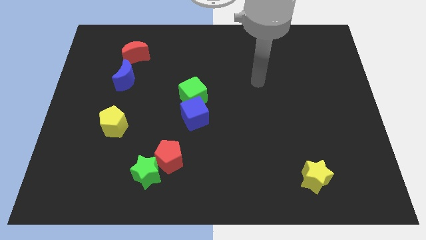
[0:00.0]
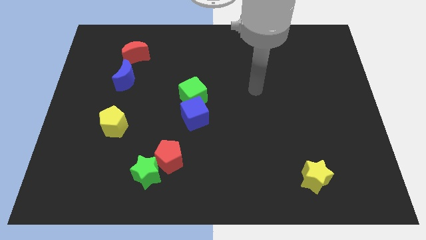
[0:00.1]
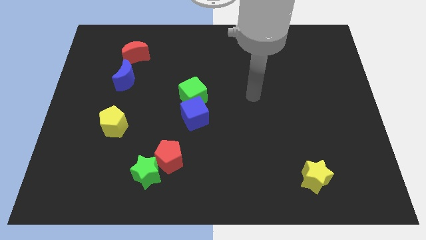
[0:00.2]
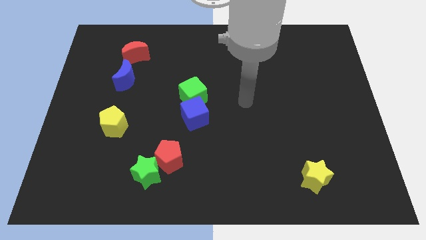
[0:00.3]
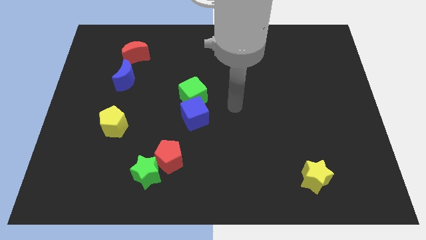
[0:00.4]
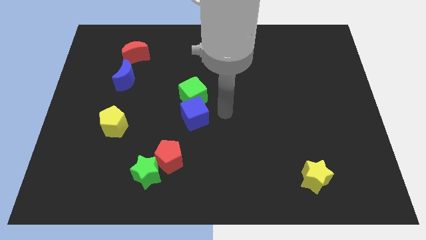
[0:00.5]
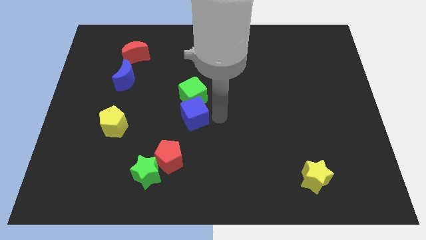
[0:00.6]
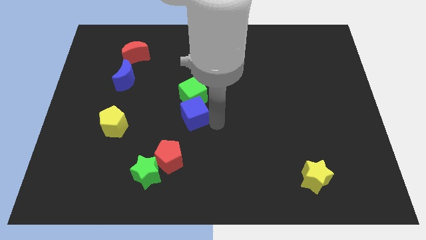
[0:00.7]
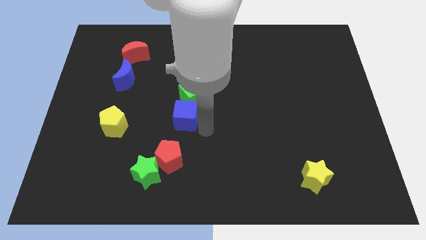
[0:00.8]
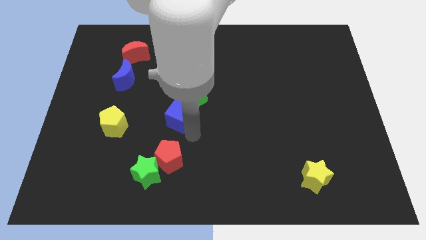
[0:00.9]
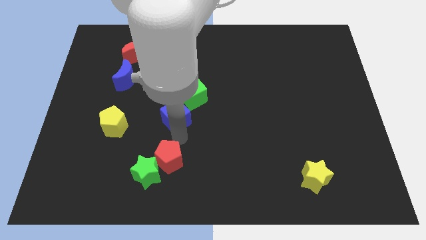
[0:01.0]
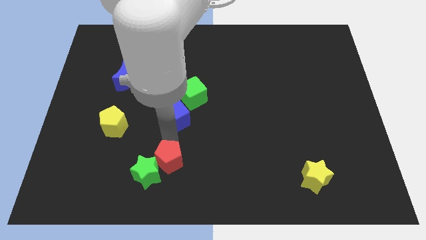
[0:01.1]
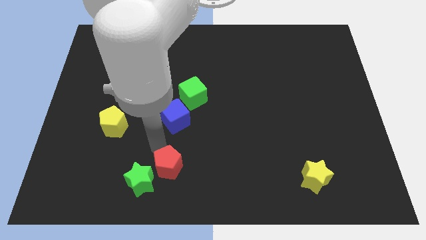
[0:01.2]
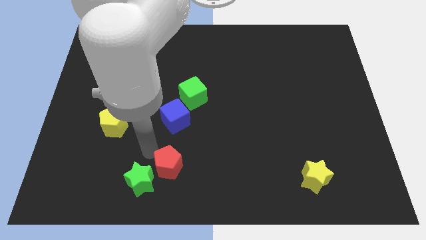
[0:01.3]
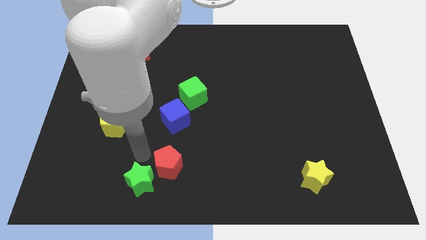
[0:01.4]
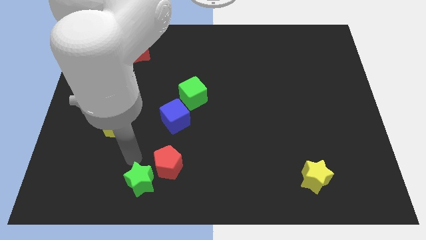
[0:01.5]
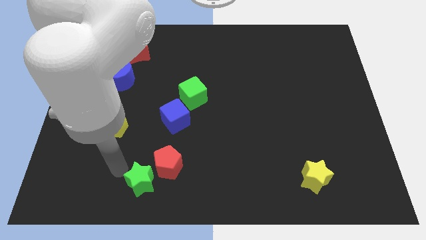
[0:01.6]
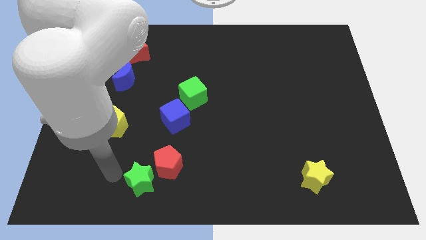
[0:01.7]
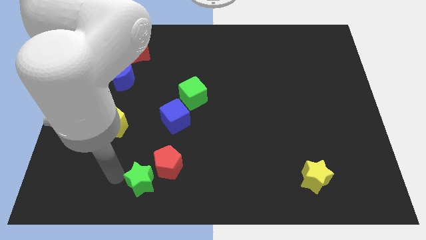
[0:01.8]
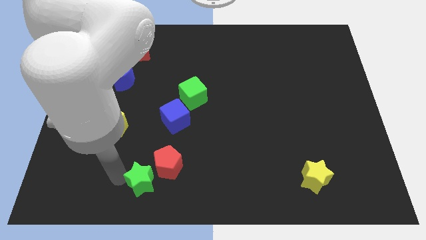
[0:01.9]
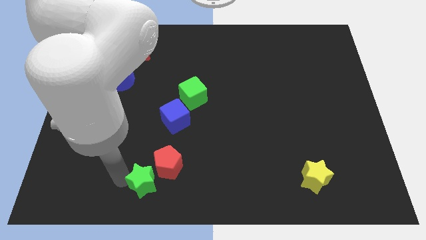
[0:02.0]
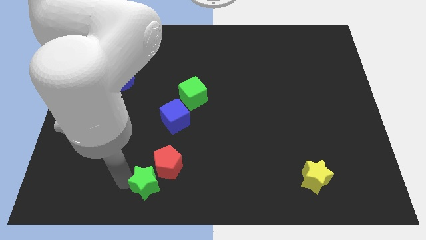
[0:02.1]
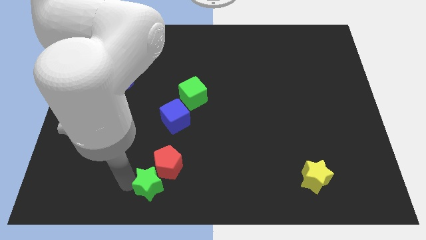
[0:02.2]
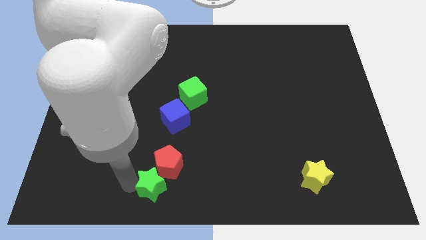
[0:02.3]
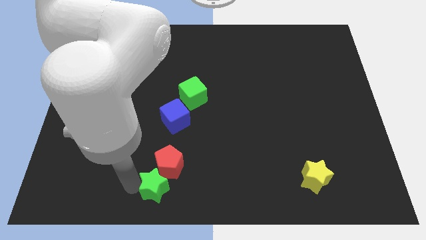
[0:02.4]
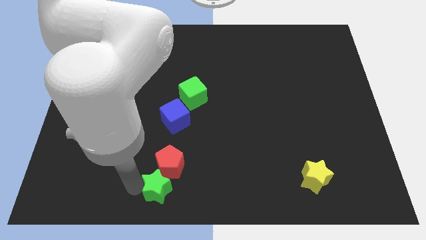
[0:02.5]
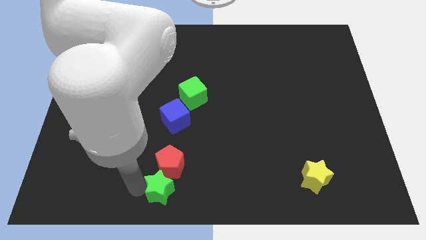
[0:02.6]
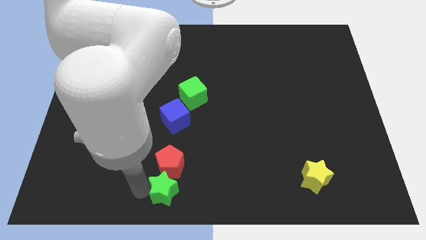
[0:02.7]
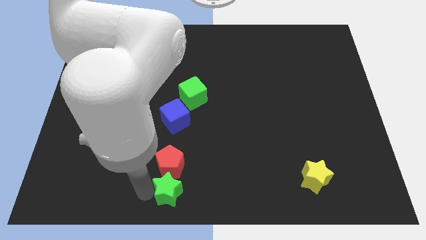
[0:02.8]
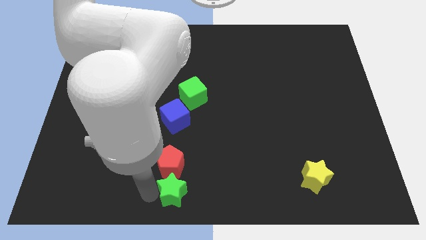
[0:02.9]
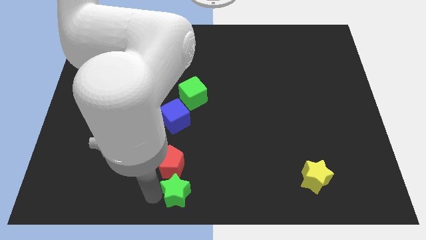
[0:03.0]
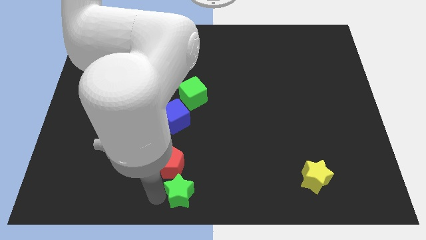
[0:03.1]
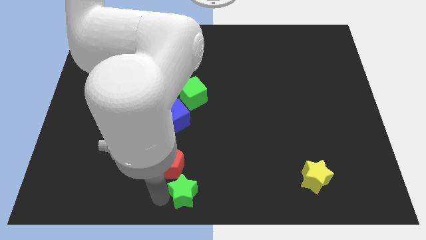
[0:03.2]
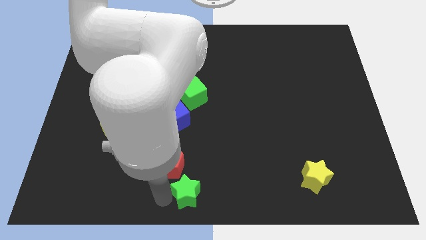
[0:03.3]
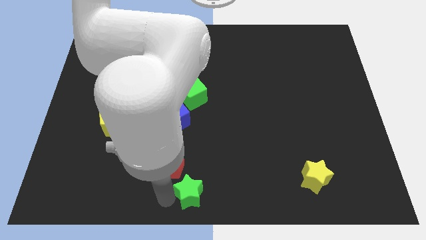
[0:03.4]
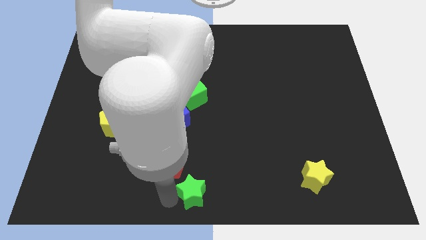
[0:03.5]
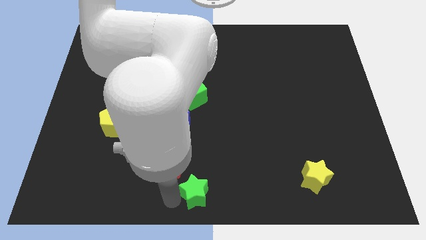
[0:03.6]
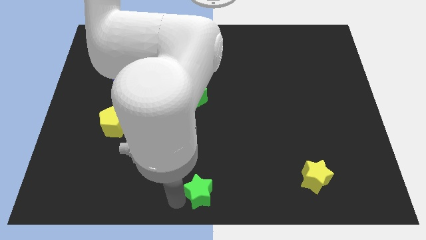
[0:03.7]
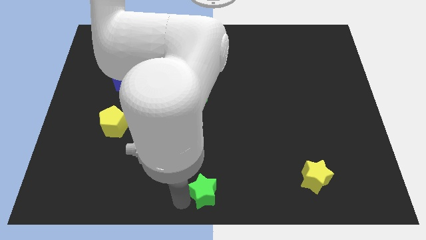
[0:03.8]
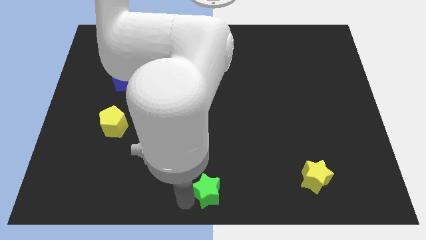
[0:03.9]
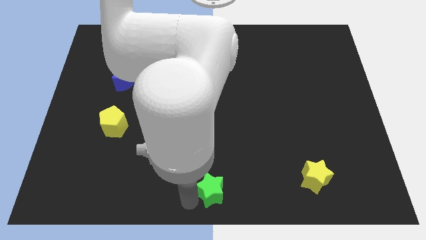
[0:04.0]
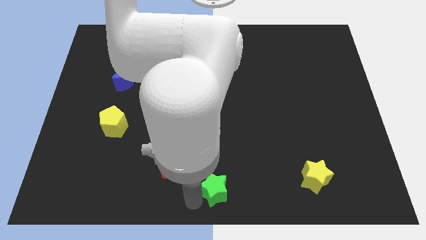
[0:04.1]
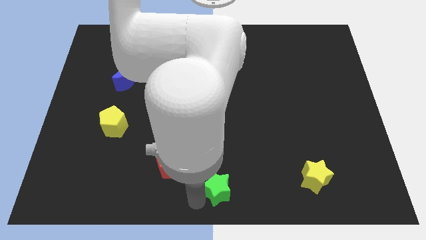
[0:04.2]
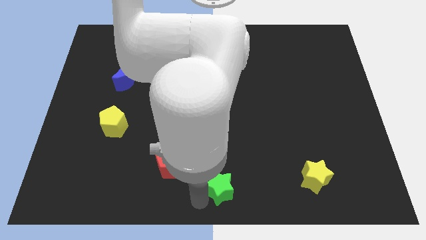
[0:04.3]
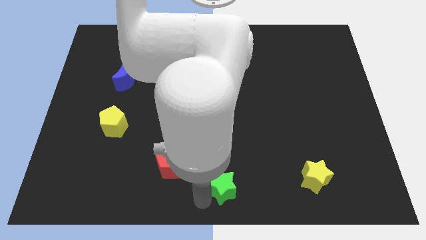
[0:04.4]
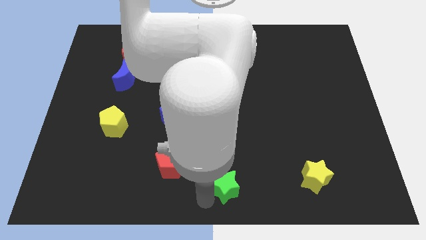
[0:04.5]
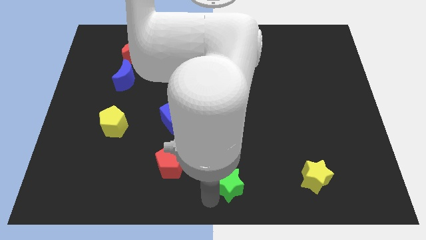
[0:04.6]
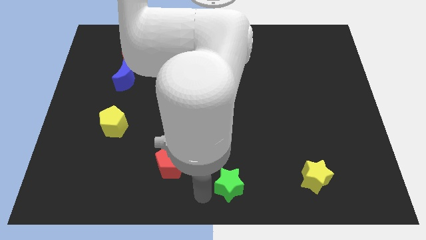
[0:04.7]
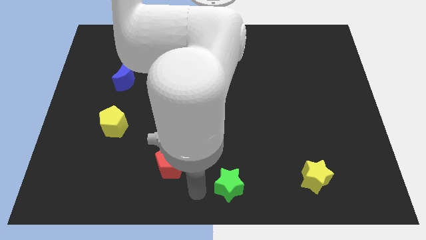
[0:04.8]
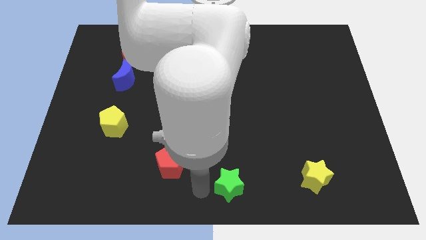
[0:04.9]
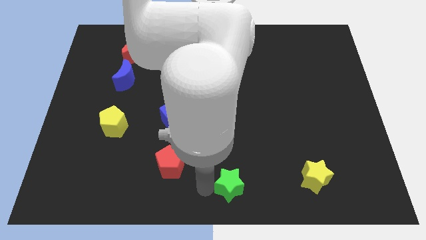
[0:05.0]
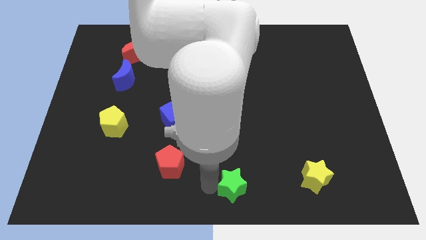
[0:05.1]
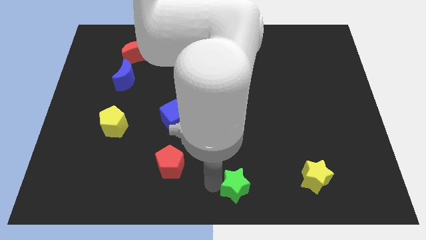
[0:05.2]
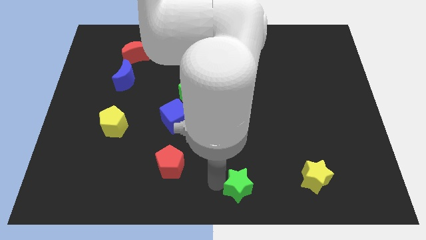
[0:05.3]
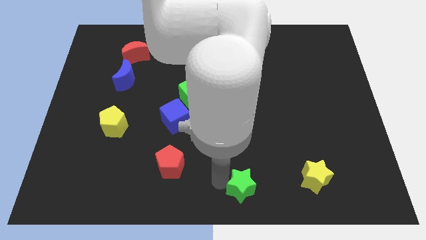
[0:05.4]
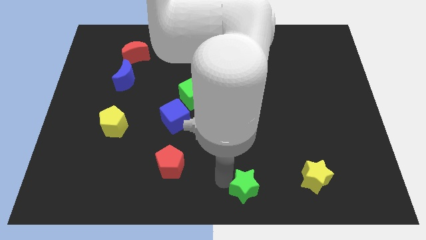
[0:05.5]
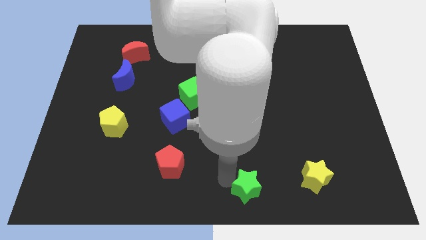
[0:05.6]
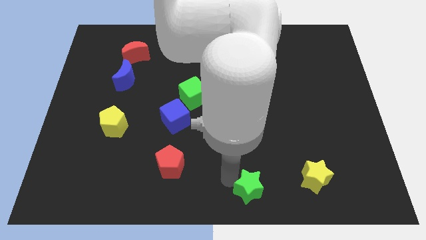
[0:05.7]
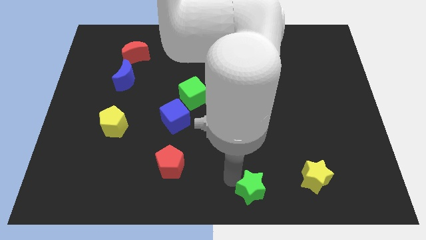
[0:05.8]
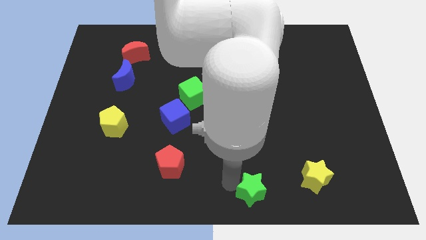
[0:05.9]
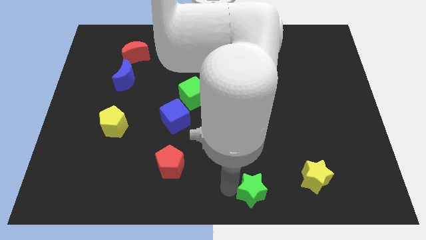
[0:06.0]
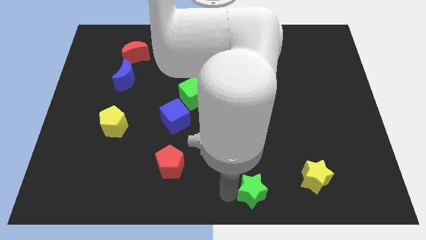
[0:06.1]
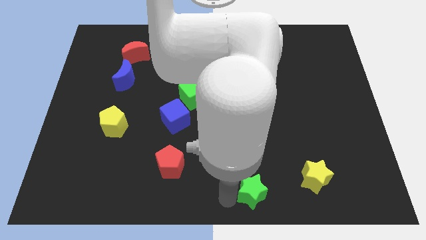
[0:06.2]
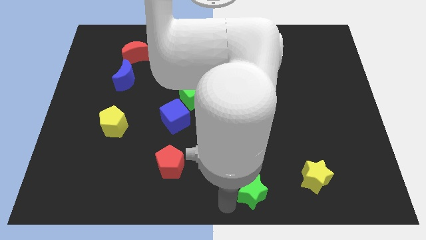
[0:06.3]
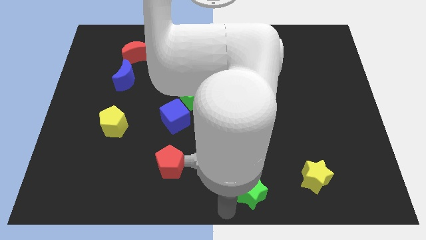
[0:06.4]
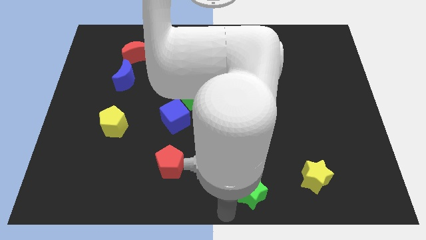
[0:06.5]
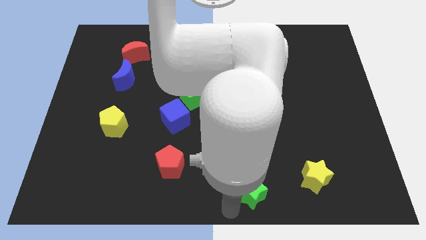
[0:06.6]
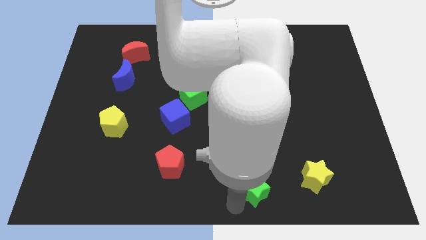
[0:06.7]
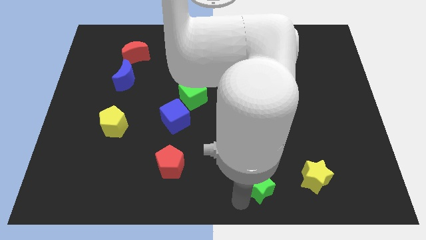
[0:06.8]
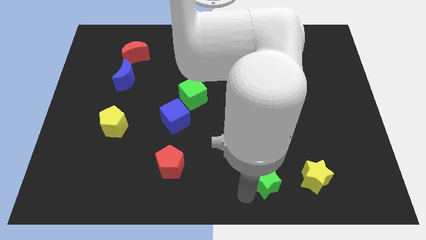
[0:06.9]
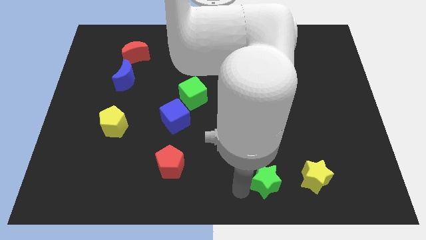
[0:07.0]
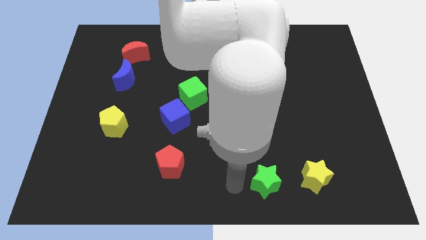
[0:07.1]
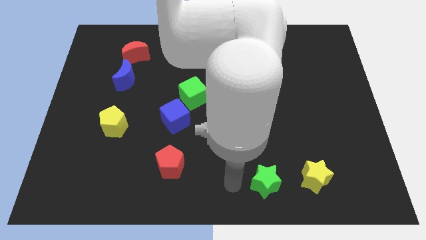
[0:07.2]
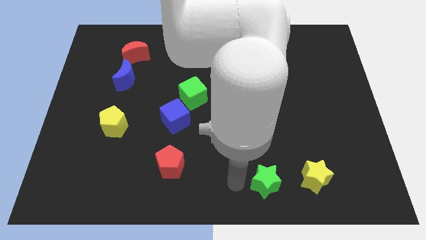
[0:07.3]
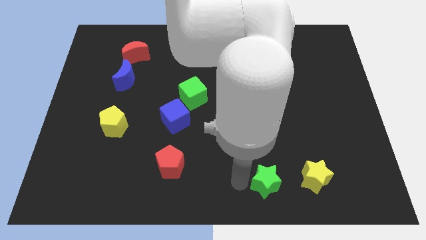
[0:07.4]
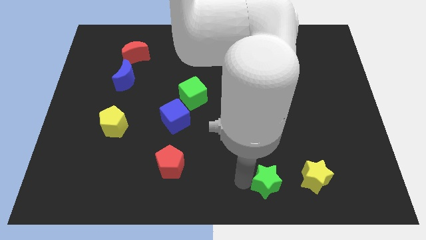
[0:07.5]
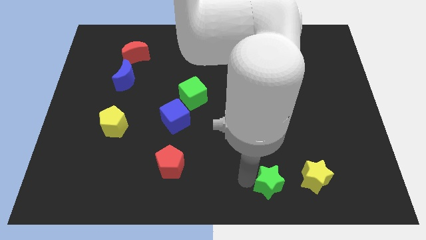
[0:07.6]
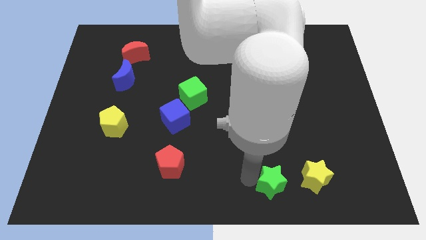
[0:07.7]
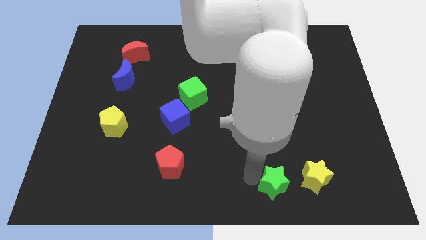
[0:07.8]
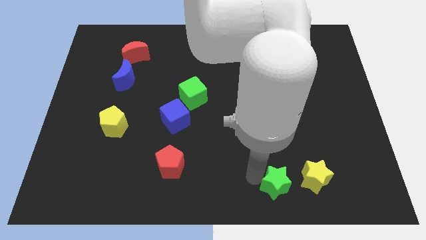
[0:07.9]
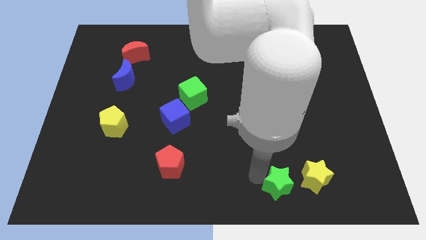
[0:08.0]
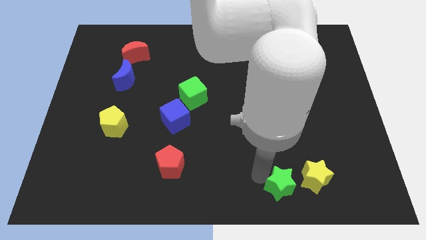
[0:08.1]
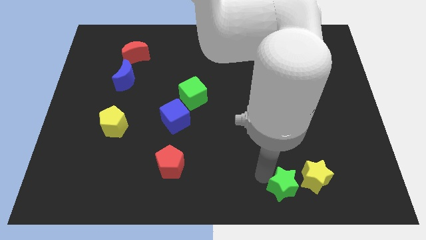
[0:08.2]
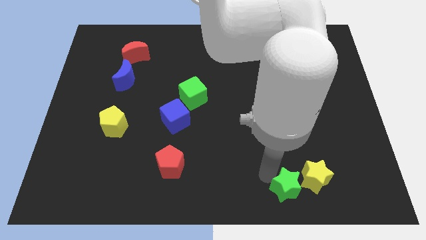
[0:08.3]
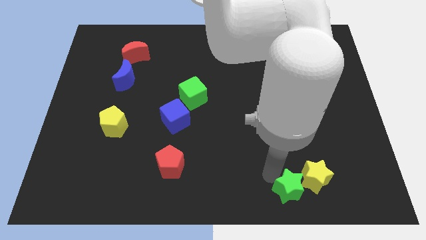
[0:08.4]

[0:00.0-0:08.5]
put the green star to the yellow star
